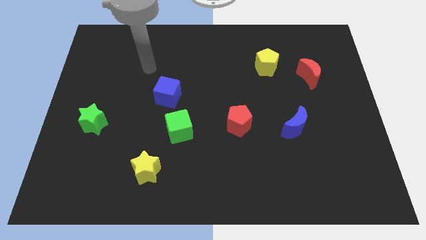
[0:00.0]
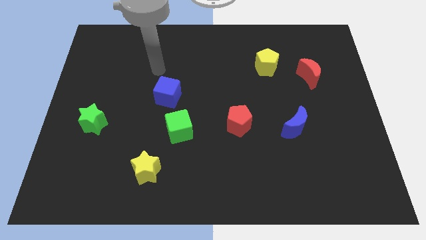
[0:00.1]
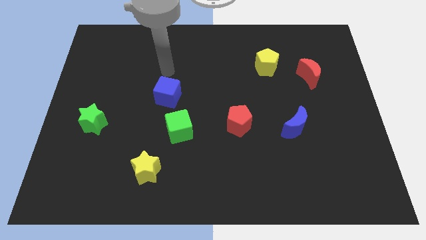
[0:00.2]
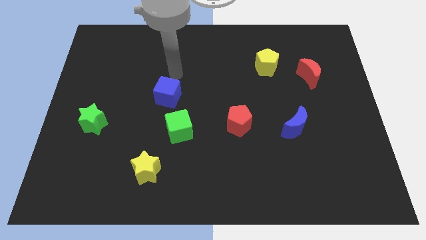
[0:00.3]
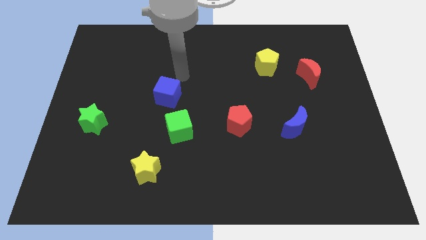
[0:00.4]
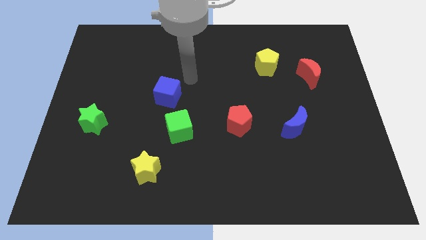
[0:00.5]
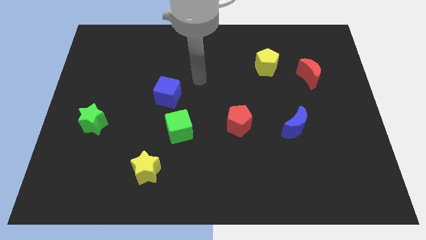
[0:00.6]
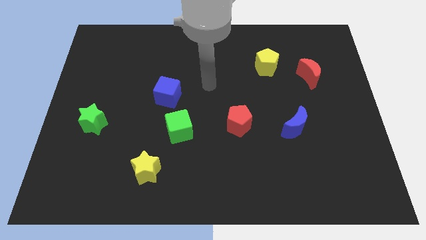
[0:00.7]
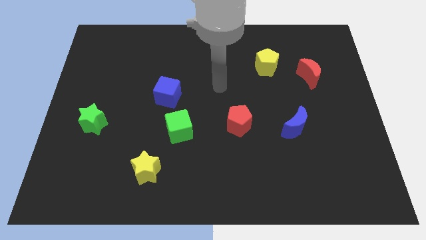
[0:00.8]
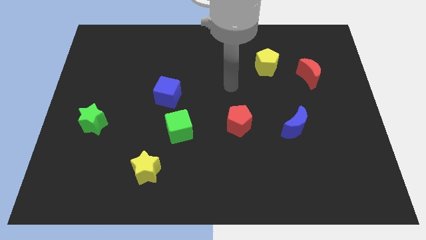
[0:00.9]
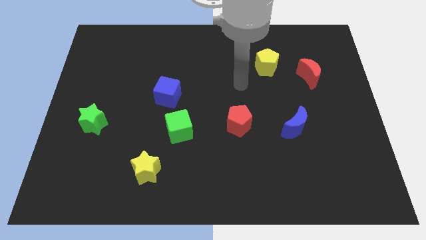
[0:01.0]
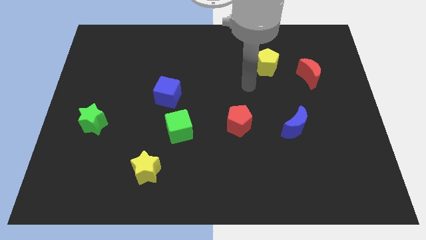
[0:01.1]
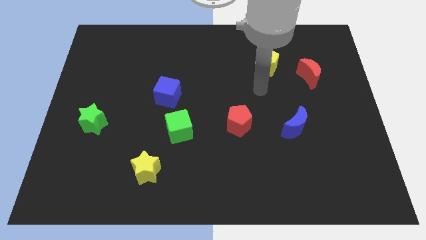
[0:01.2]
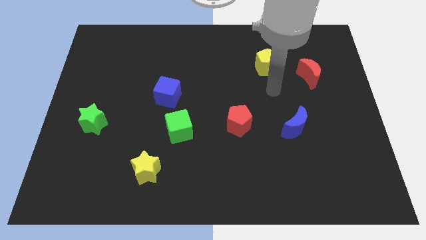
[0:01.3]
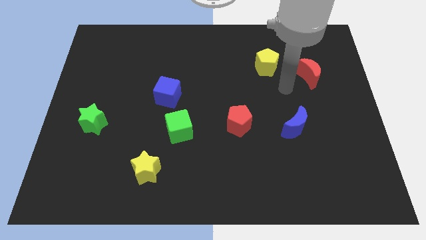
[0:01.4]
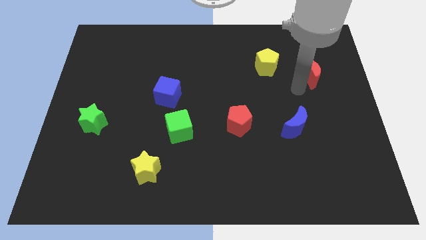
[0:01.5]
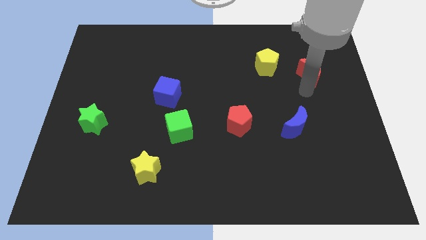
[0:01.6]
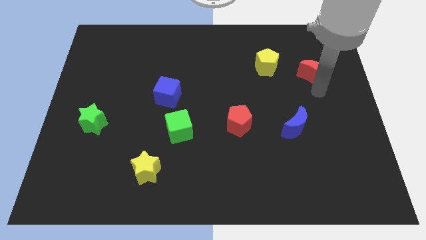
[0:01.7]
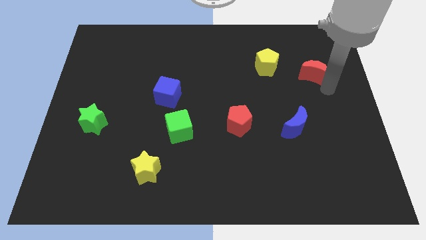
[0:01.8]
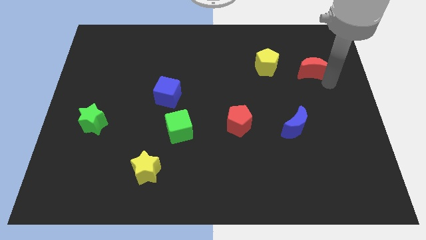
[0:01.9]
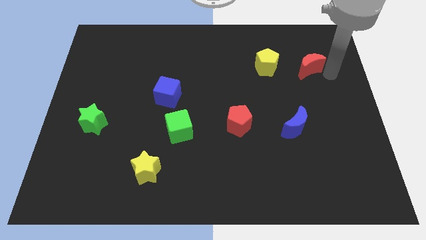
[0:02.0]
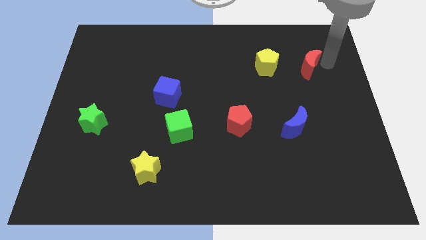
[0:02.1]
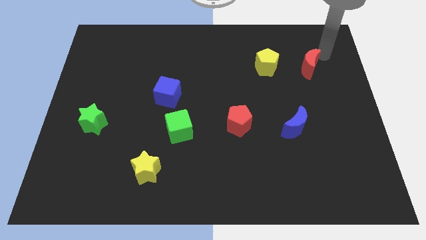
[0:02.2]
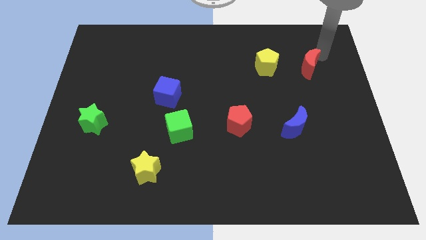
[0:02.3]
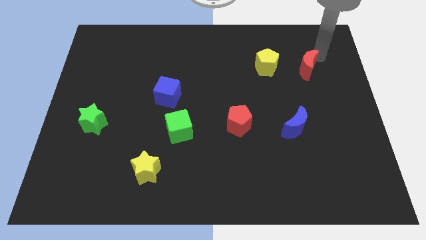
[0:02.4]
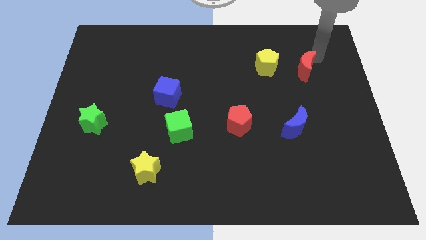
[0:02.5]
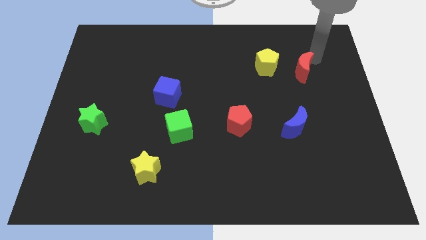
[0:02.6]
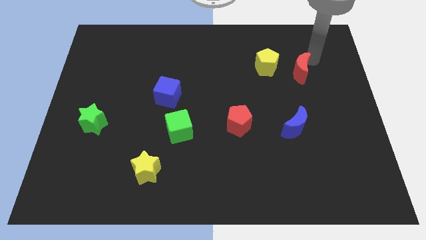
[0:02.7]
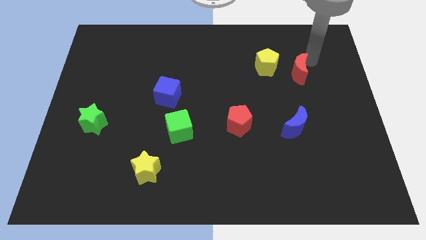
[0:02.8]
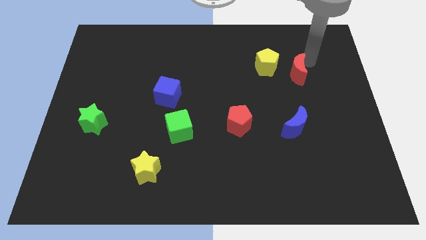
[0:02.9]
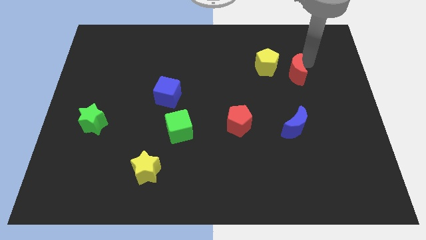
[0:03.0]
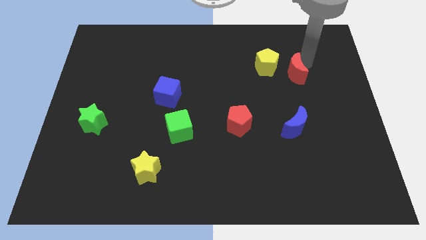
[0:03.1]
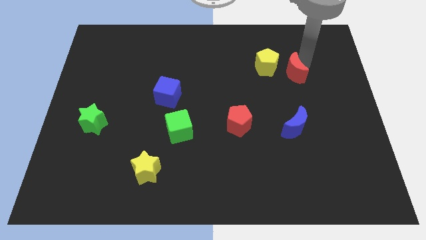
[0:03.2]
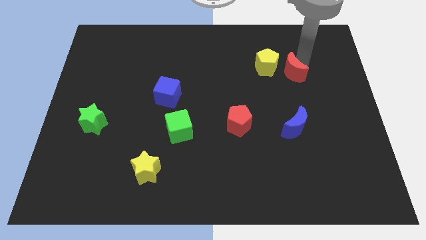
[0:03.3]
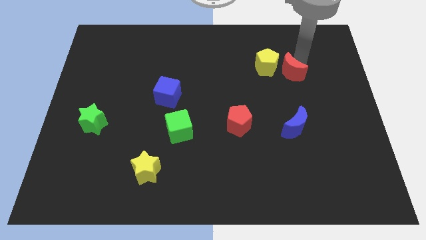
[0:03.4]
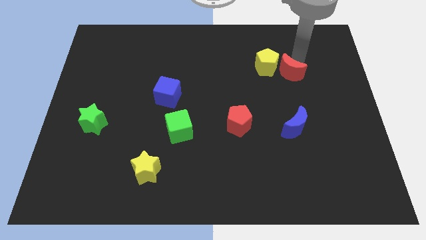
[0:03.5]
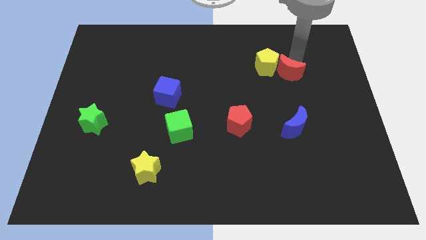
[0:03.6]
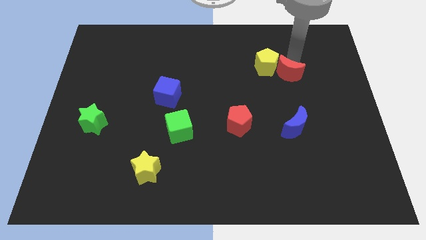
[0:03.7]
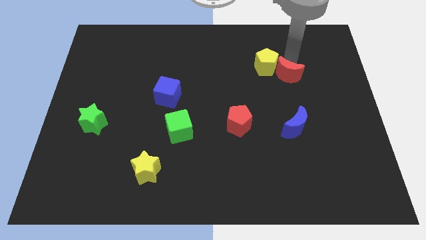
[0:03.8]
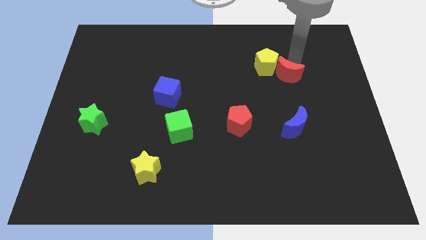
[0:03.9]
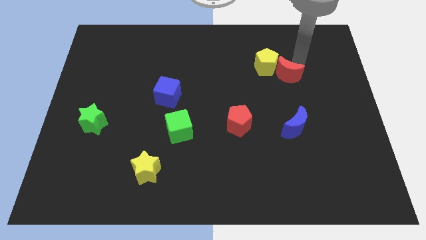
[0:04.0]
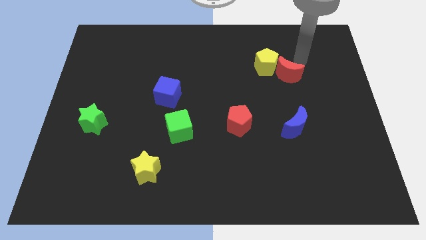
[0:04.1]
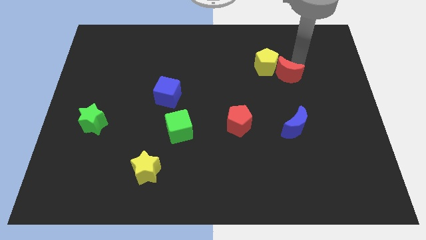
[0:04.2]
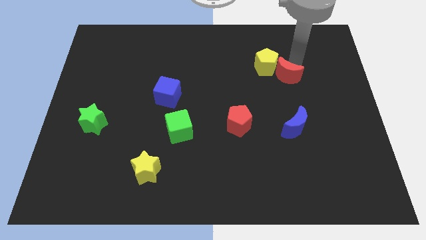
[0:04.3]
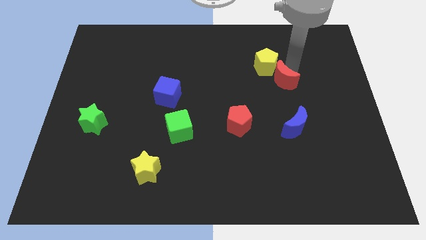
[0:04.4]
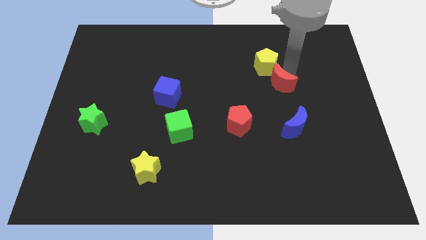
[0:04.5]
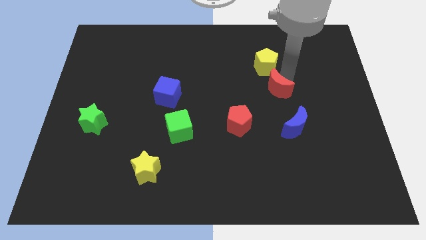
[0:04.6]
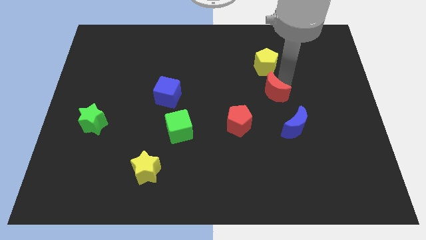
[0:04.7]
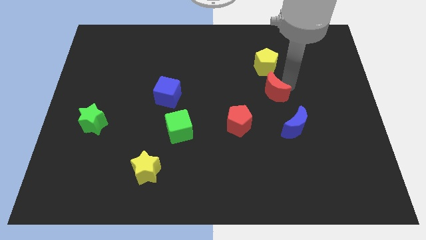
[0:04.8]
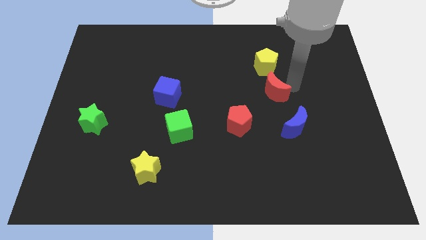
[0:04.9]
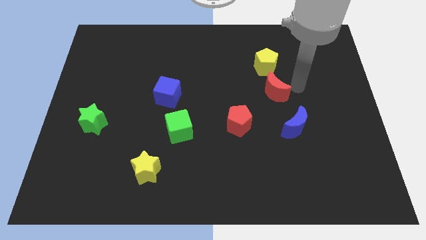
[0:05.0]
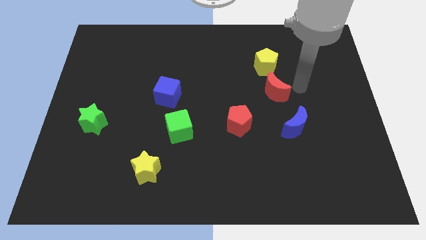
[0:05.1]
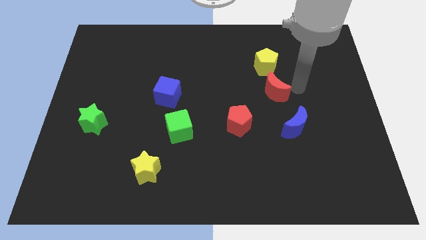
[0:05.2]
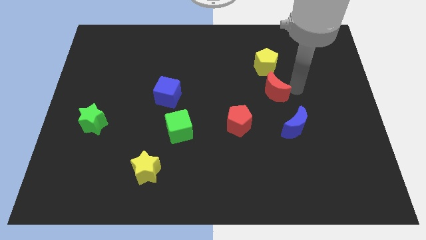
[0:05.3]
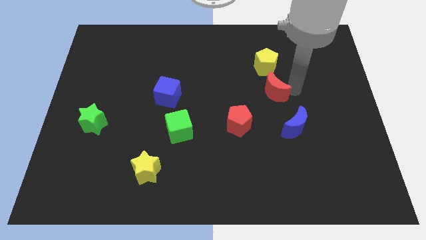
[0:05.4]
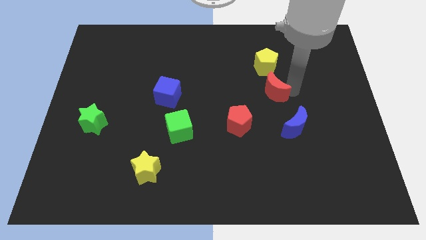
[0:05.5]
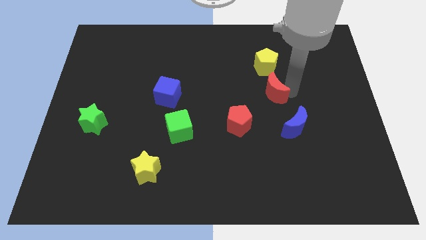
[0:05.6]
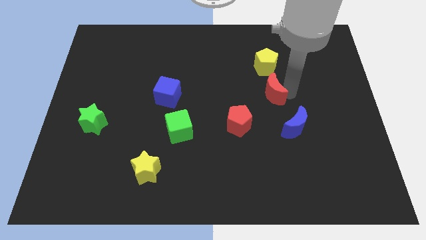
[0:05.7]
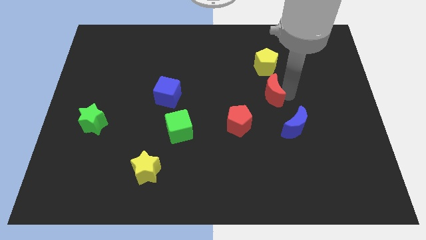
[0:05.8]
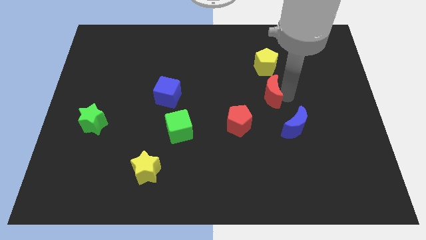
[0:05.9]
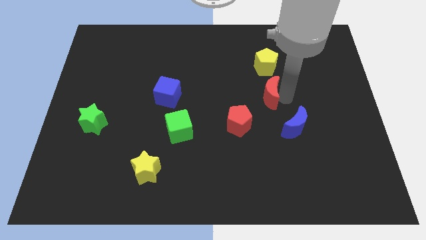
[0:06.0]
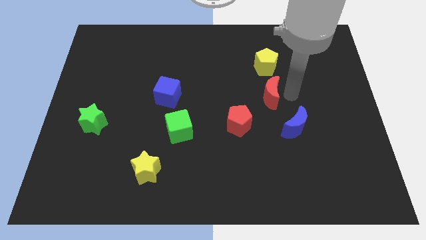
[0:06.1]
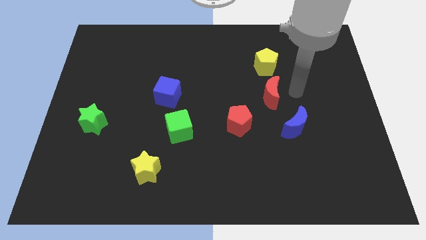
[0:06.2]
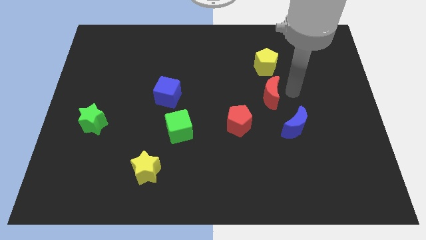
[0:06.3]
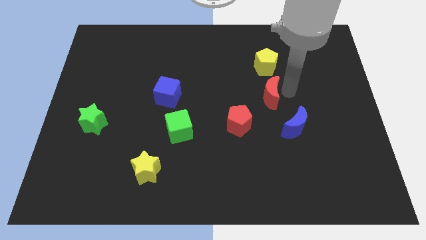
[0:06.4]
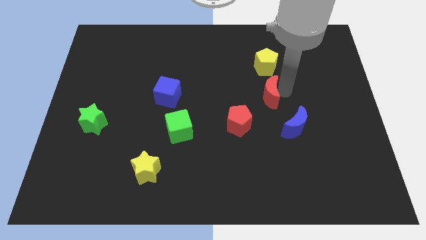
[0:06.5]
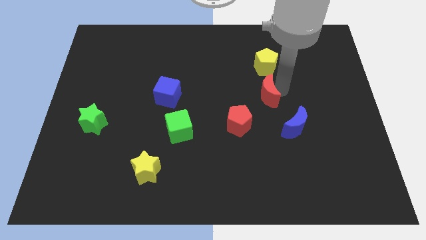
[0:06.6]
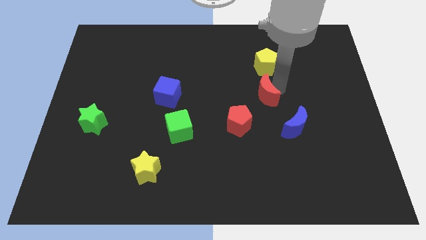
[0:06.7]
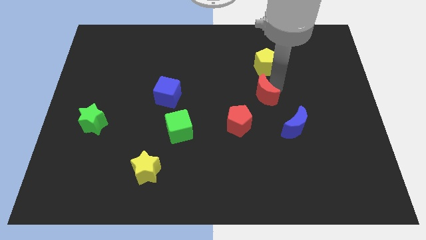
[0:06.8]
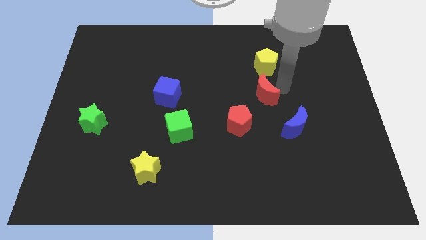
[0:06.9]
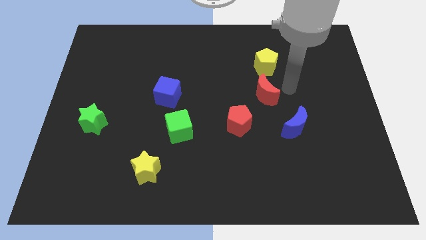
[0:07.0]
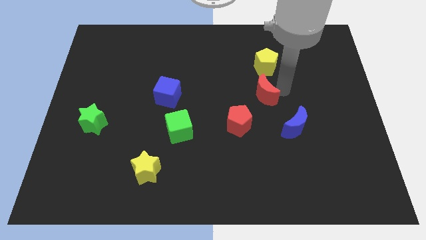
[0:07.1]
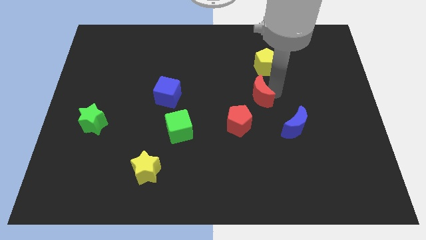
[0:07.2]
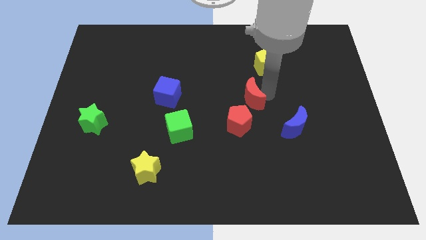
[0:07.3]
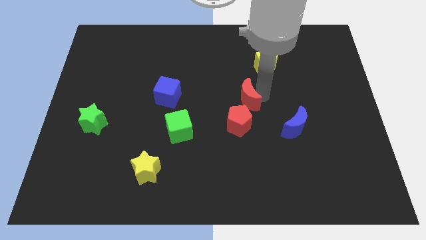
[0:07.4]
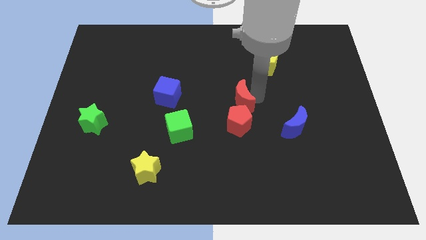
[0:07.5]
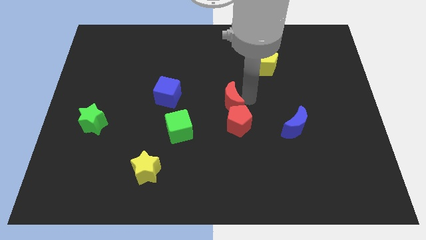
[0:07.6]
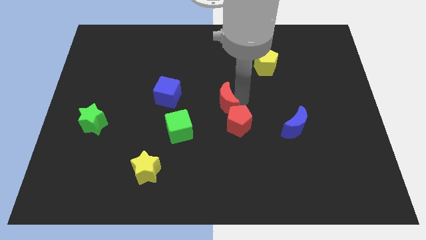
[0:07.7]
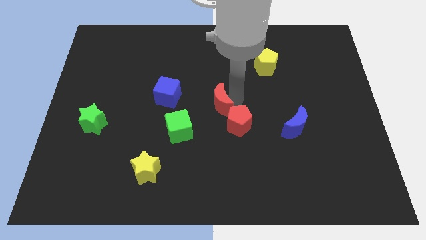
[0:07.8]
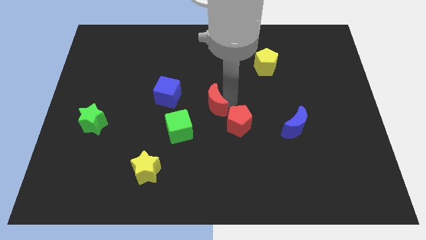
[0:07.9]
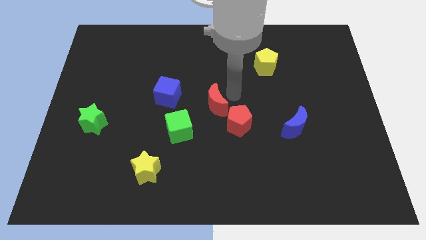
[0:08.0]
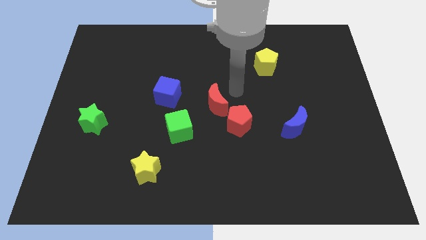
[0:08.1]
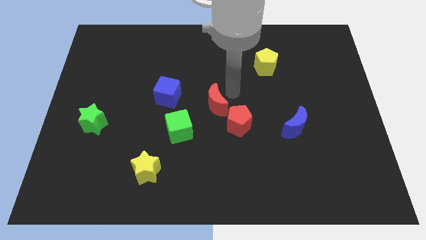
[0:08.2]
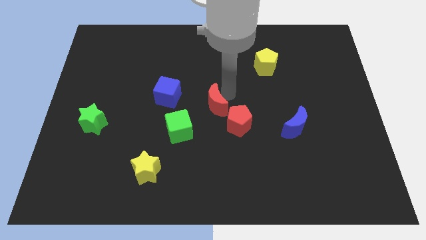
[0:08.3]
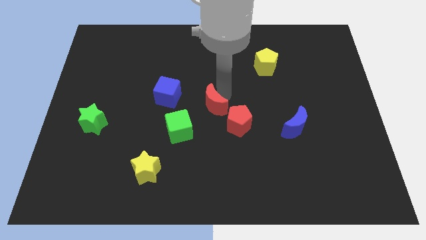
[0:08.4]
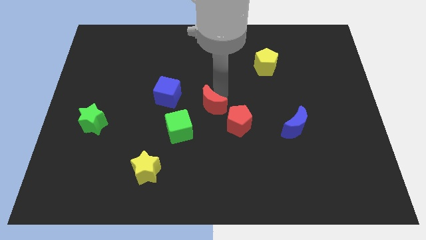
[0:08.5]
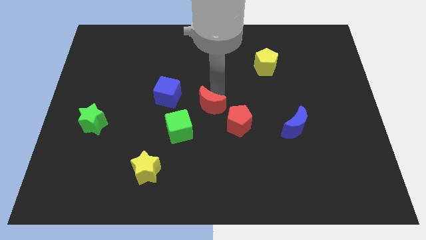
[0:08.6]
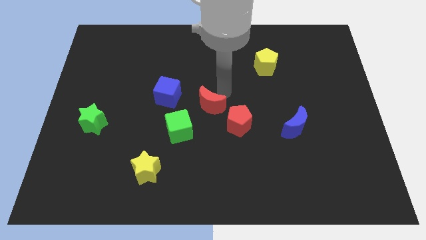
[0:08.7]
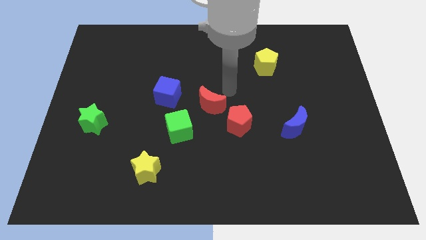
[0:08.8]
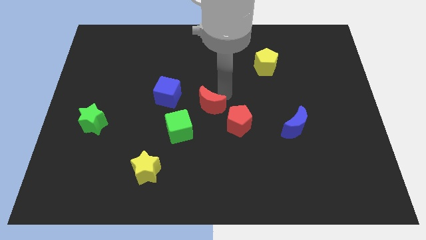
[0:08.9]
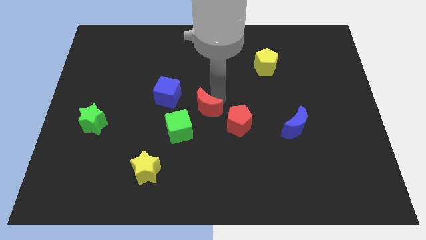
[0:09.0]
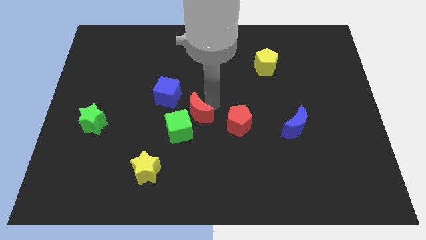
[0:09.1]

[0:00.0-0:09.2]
slide the red moon towards the green cube
